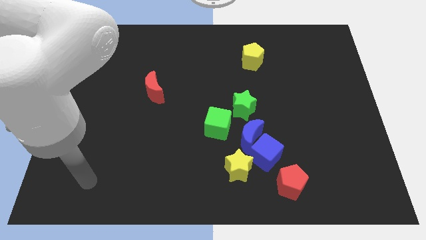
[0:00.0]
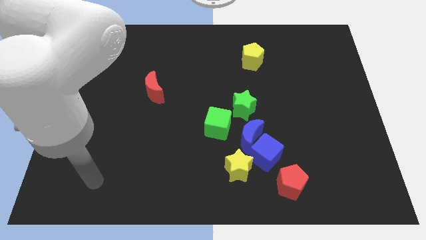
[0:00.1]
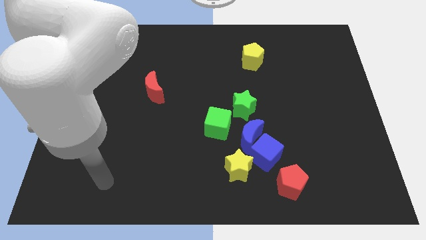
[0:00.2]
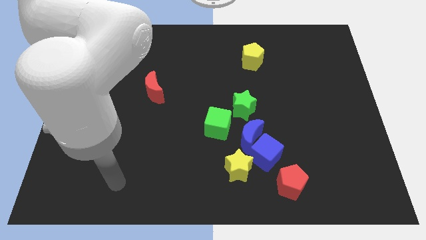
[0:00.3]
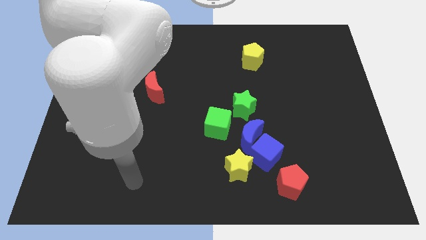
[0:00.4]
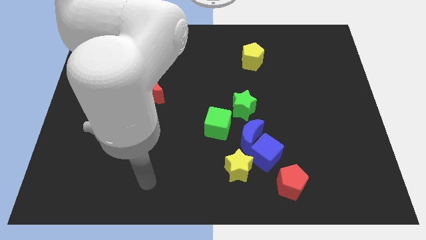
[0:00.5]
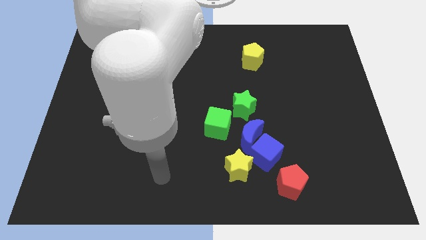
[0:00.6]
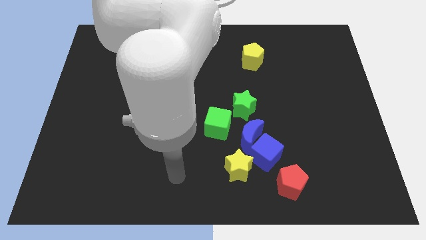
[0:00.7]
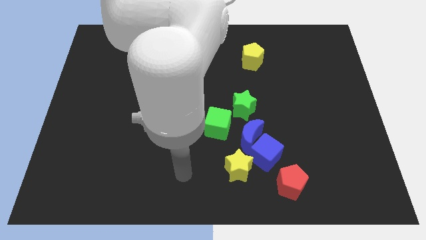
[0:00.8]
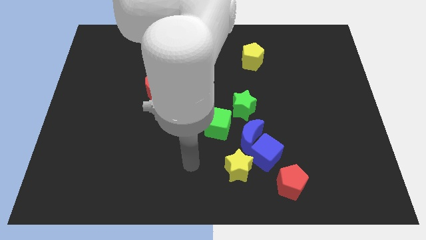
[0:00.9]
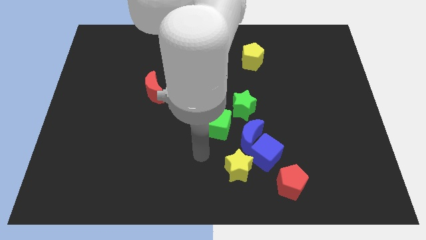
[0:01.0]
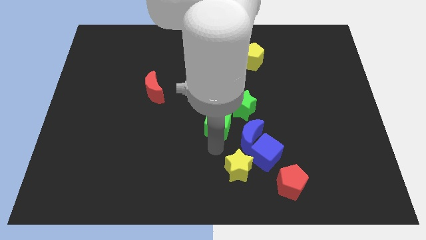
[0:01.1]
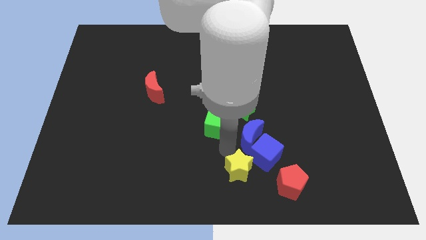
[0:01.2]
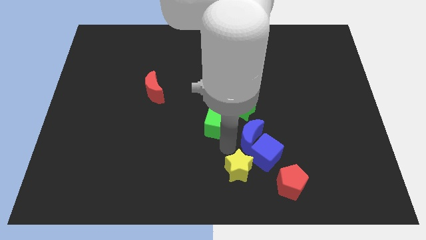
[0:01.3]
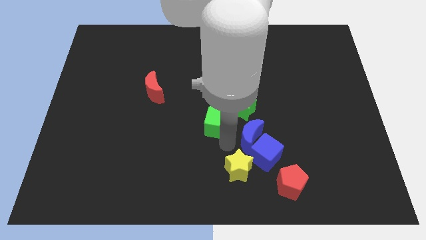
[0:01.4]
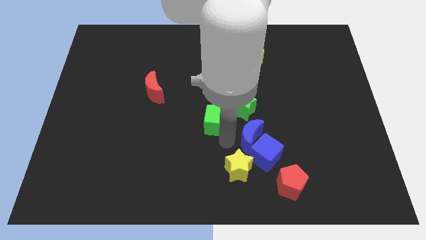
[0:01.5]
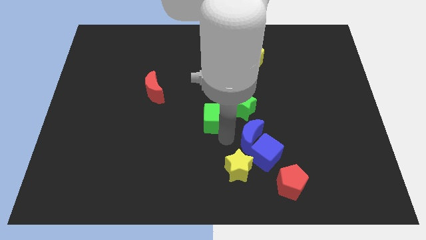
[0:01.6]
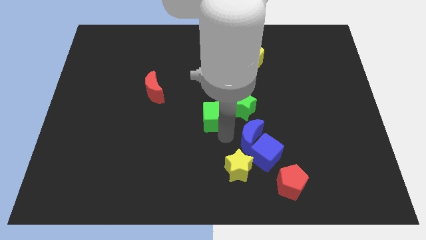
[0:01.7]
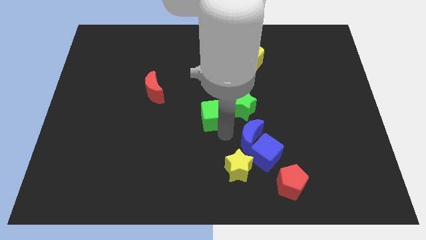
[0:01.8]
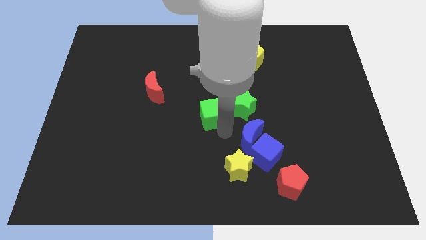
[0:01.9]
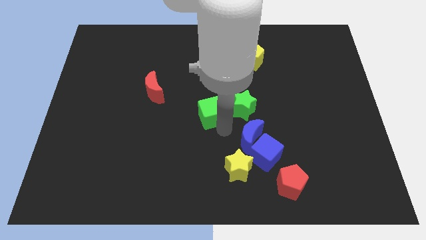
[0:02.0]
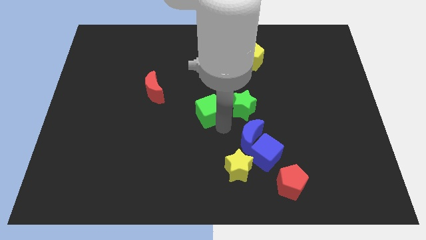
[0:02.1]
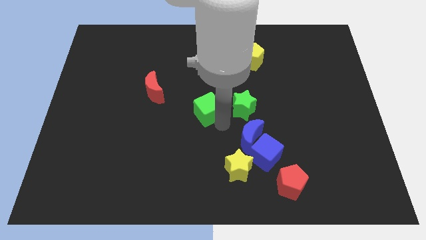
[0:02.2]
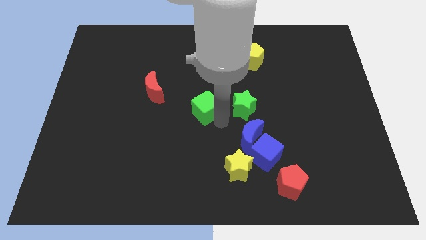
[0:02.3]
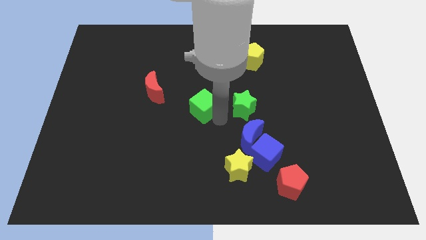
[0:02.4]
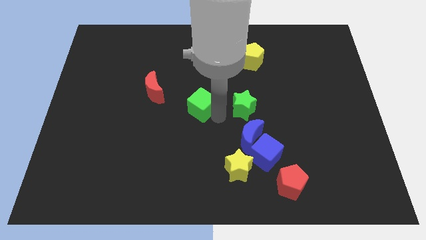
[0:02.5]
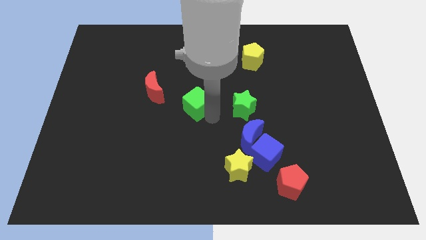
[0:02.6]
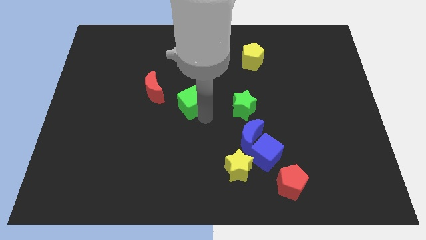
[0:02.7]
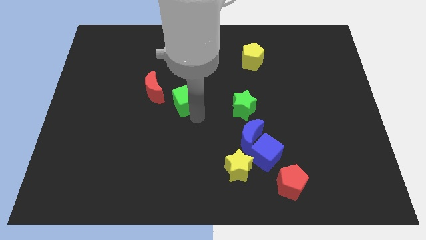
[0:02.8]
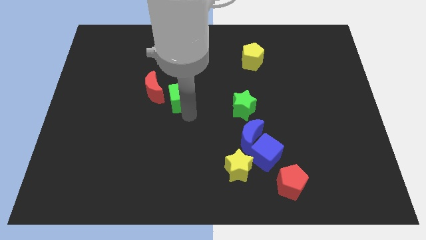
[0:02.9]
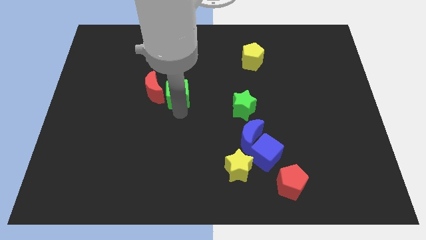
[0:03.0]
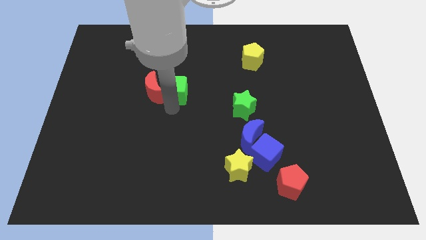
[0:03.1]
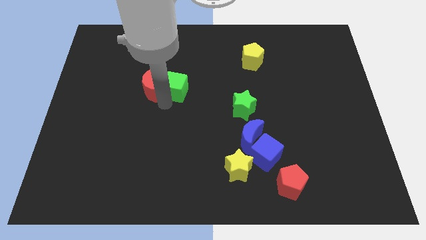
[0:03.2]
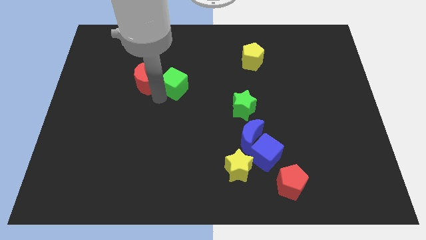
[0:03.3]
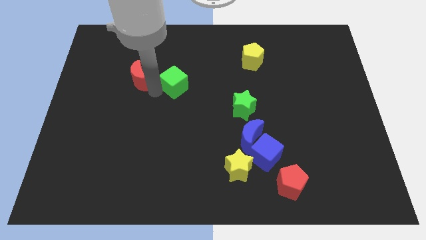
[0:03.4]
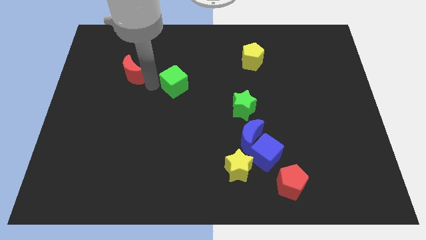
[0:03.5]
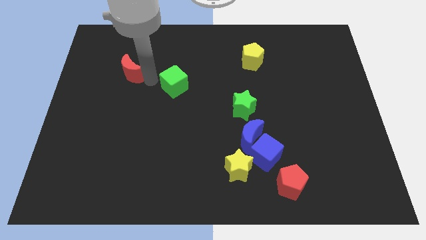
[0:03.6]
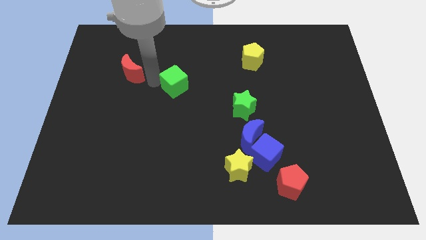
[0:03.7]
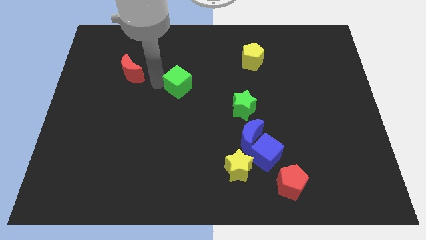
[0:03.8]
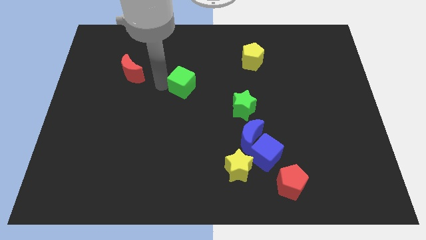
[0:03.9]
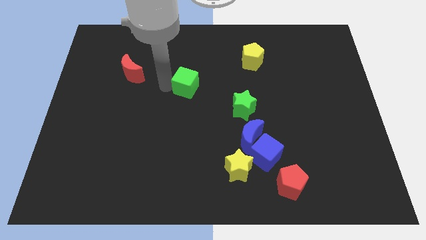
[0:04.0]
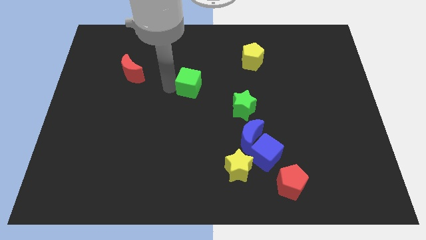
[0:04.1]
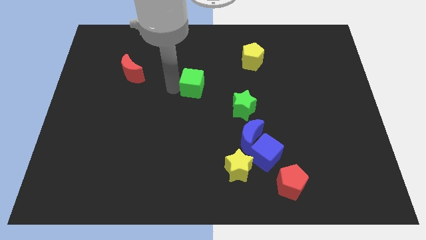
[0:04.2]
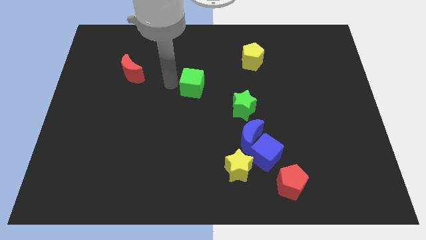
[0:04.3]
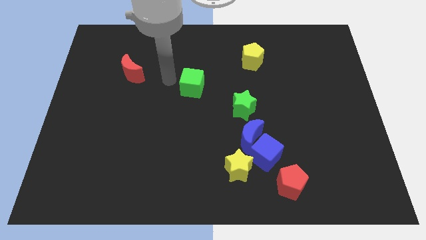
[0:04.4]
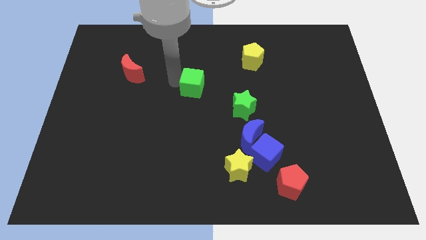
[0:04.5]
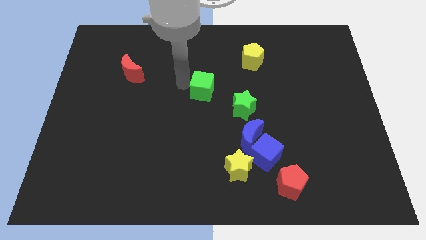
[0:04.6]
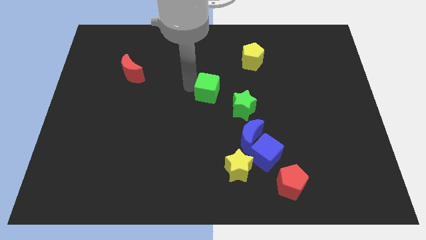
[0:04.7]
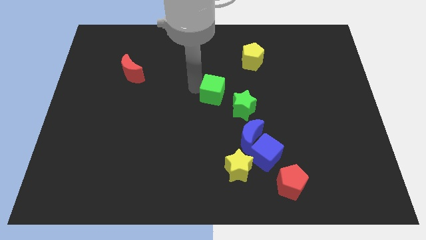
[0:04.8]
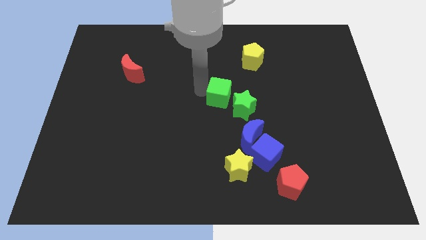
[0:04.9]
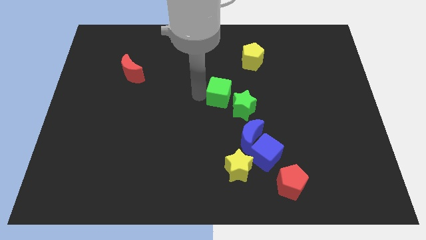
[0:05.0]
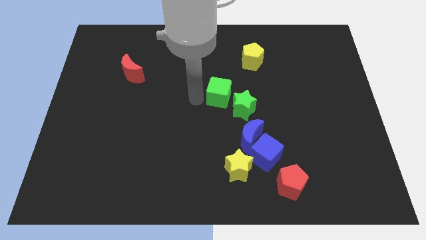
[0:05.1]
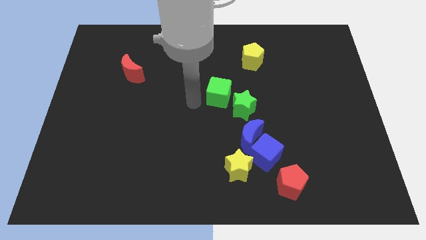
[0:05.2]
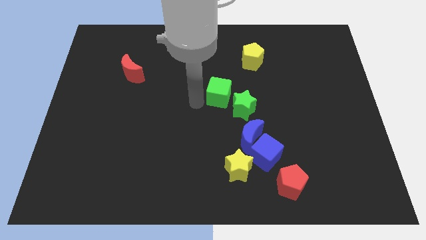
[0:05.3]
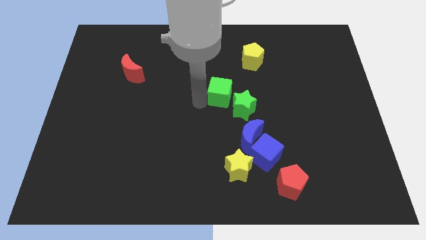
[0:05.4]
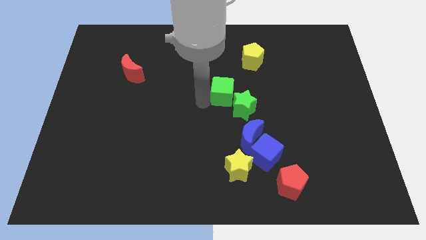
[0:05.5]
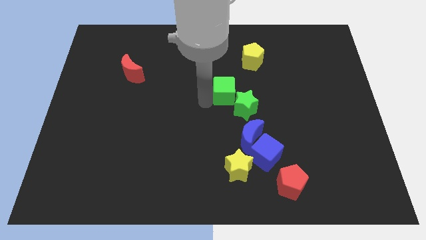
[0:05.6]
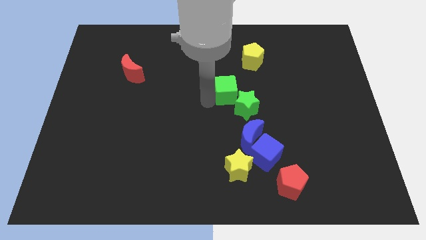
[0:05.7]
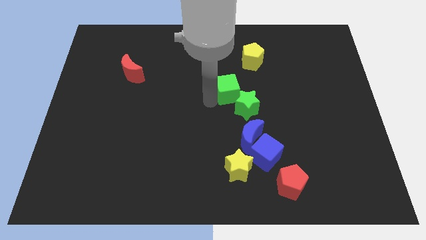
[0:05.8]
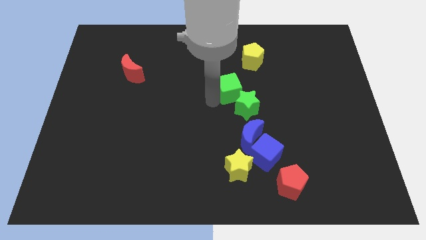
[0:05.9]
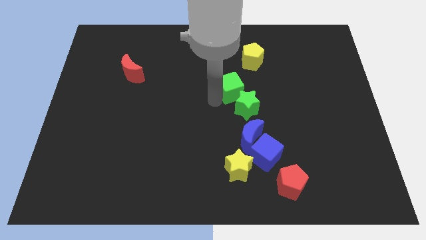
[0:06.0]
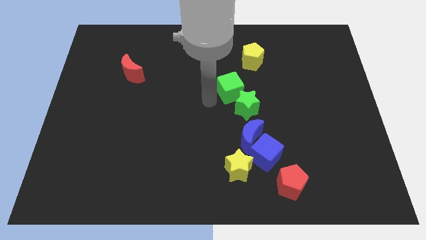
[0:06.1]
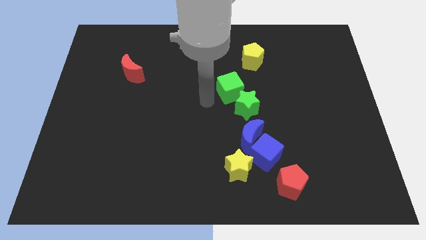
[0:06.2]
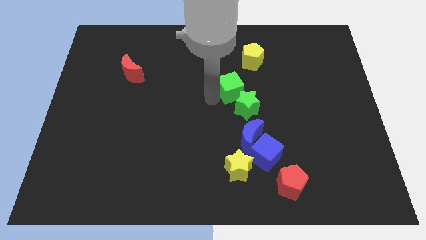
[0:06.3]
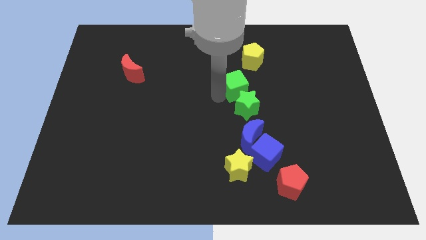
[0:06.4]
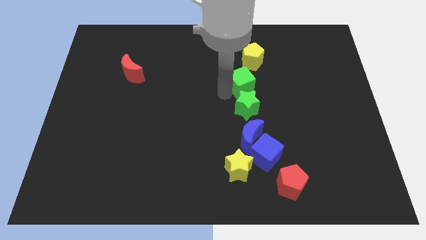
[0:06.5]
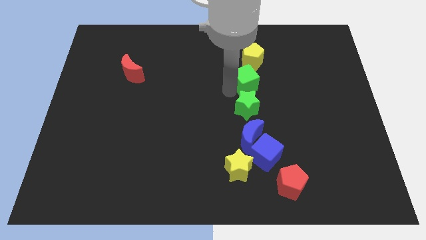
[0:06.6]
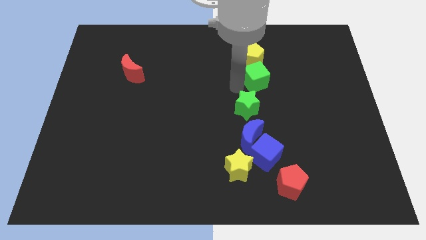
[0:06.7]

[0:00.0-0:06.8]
move the green cube to the bottom right of the yellow pentagon

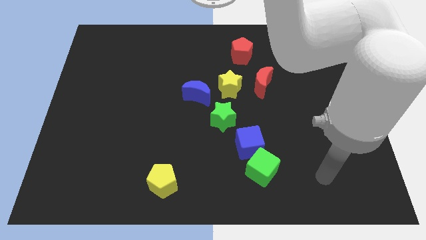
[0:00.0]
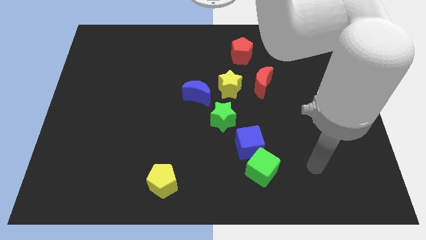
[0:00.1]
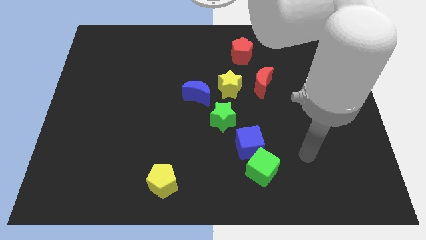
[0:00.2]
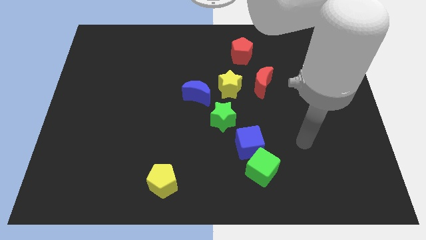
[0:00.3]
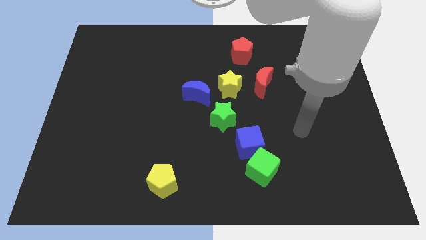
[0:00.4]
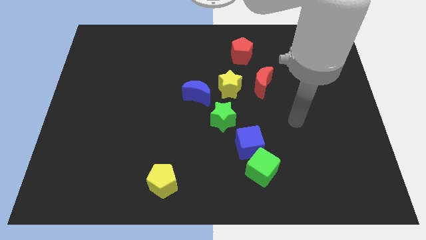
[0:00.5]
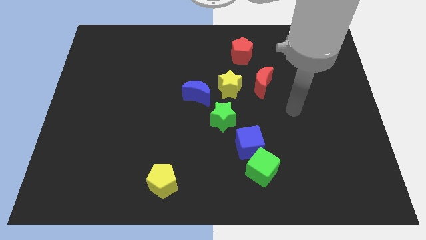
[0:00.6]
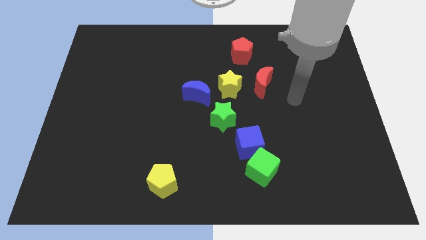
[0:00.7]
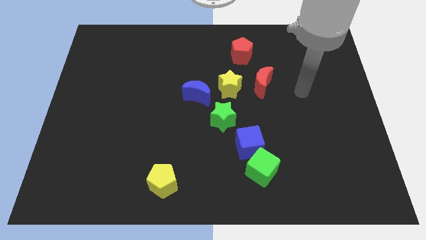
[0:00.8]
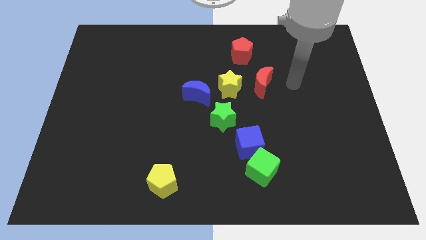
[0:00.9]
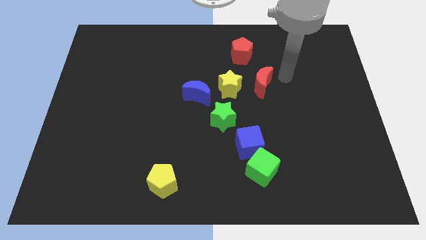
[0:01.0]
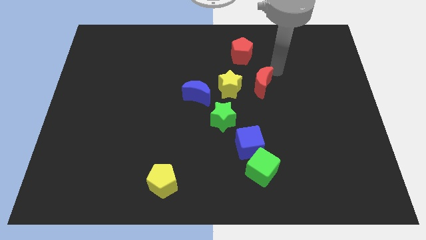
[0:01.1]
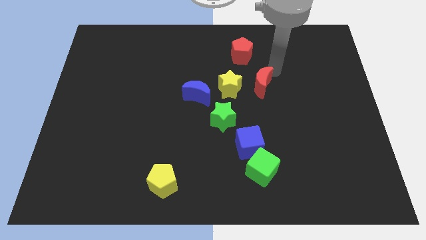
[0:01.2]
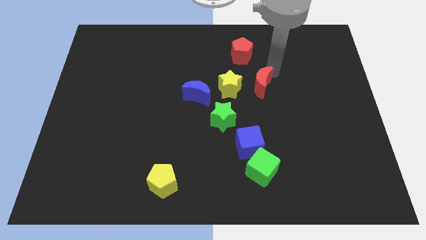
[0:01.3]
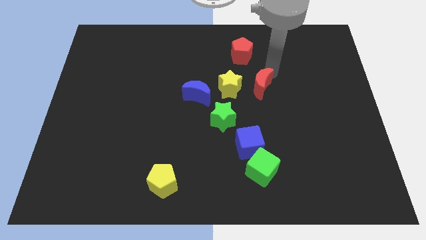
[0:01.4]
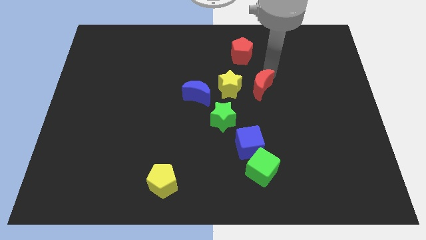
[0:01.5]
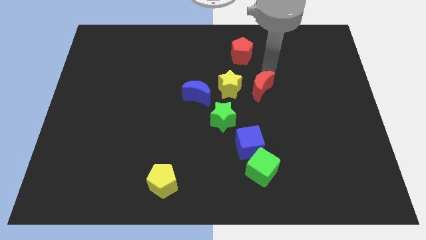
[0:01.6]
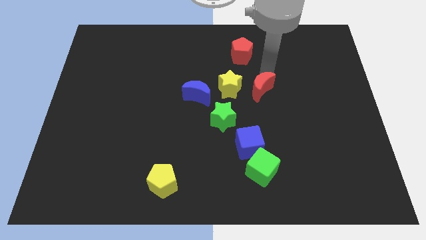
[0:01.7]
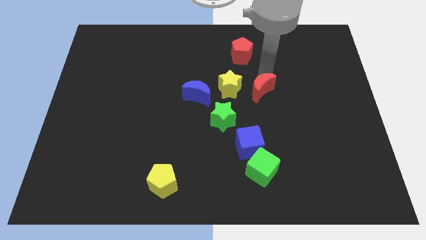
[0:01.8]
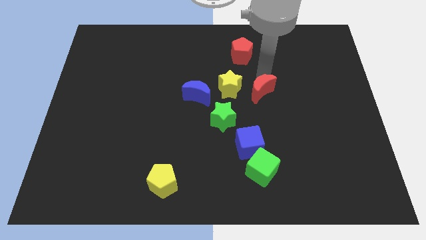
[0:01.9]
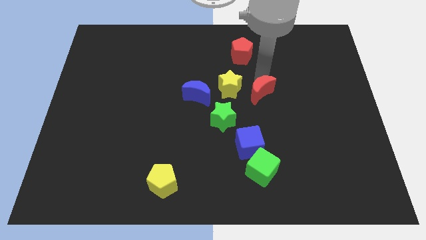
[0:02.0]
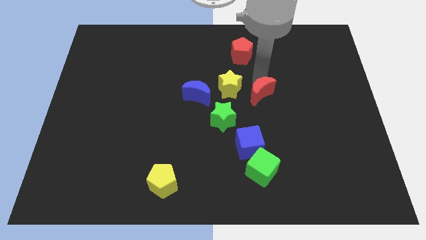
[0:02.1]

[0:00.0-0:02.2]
put the red moon to the top of the blue cube
